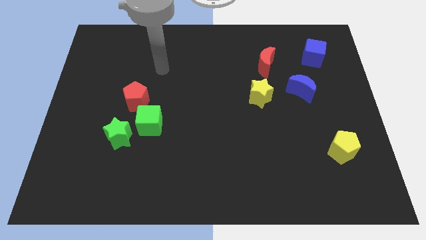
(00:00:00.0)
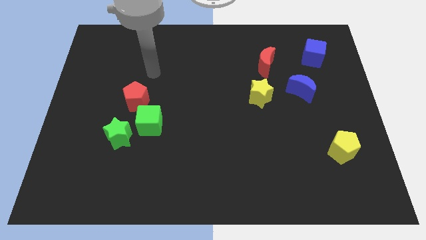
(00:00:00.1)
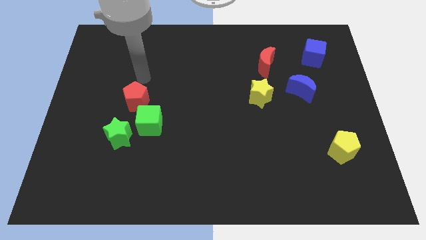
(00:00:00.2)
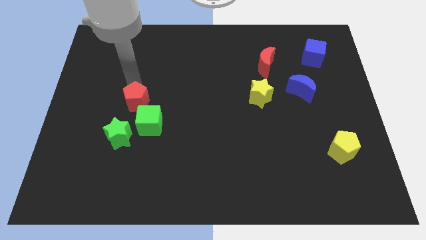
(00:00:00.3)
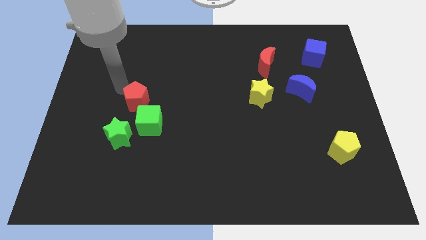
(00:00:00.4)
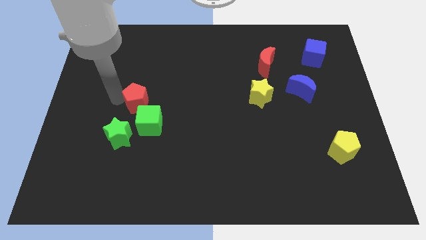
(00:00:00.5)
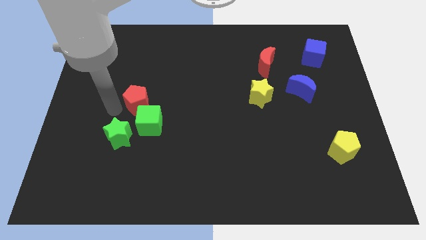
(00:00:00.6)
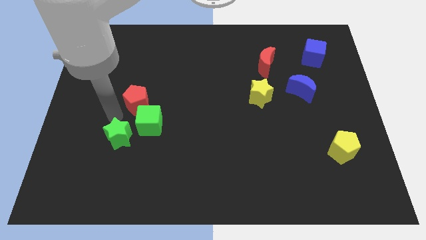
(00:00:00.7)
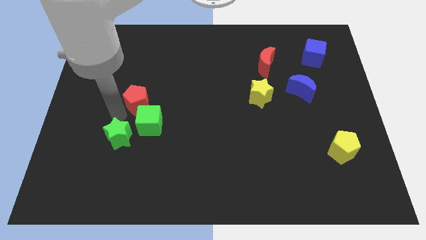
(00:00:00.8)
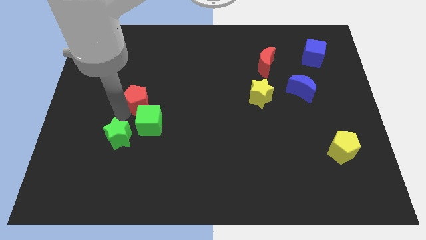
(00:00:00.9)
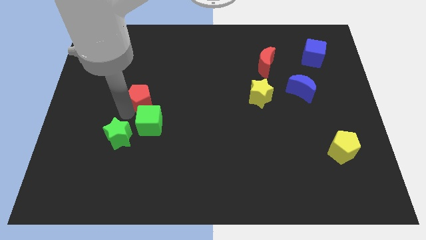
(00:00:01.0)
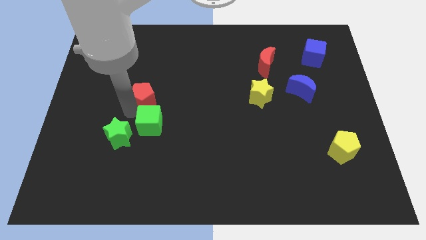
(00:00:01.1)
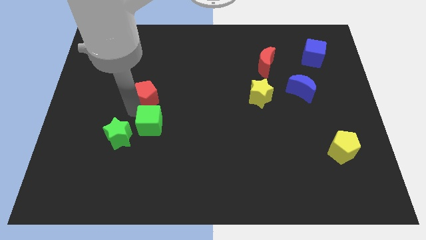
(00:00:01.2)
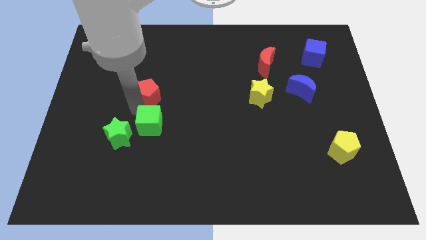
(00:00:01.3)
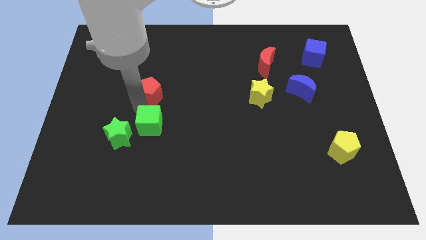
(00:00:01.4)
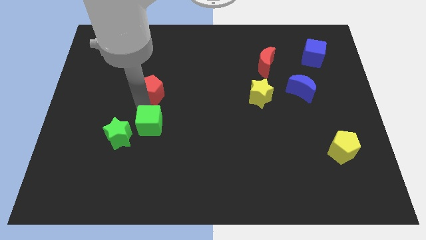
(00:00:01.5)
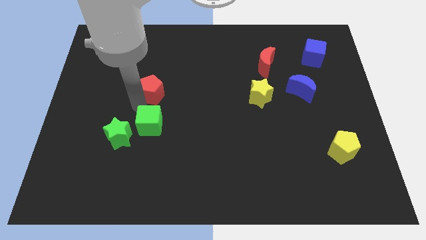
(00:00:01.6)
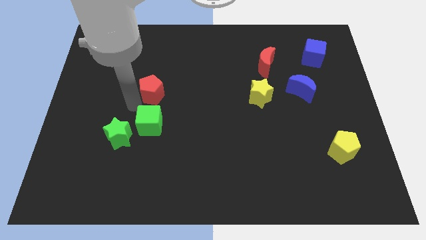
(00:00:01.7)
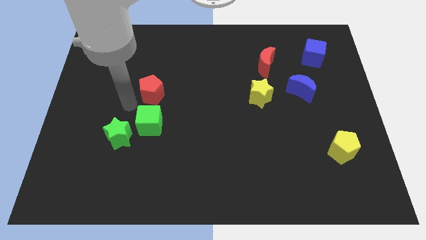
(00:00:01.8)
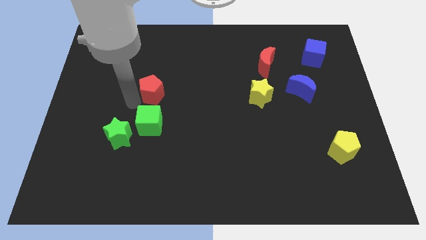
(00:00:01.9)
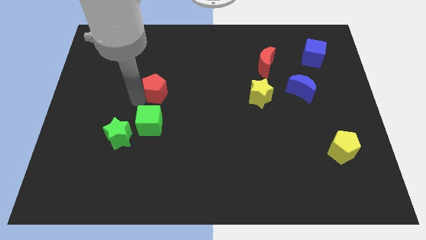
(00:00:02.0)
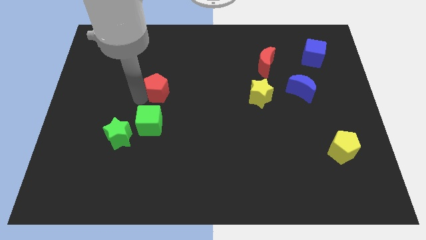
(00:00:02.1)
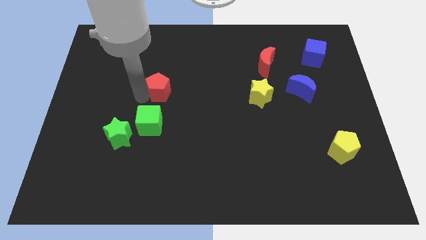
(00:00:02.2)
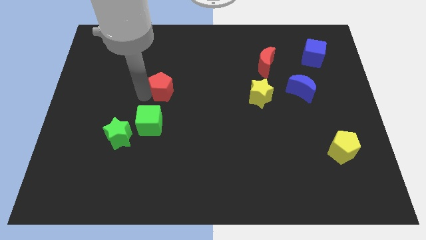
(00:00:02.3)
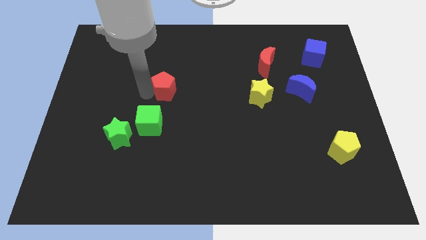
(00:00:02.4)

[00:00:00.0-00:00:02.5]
push the red pentagon a bit upwards and right diagonally

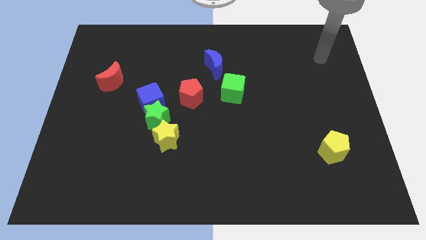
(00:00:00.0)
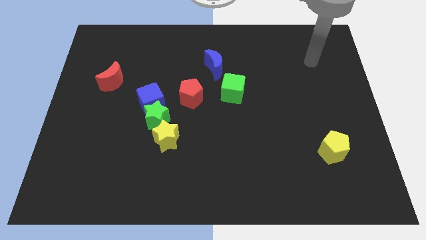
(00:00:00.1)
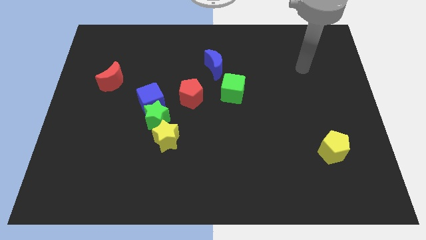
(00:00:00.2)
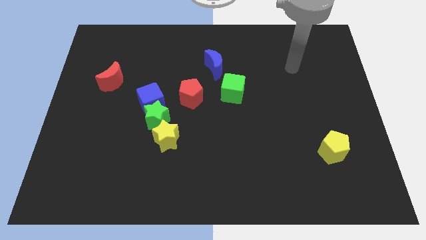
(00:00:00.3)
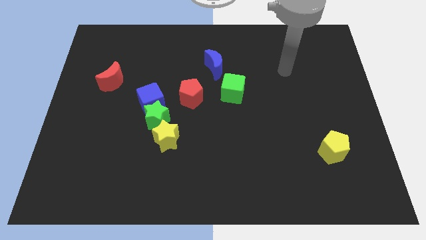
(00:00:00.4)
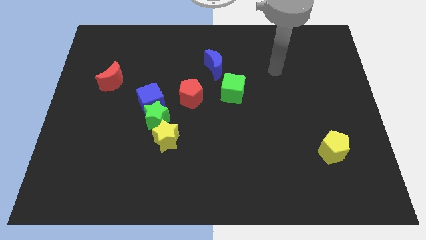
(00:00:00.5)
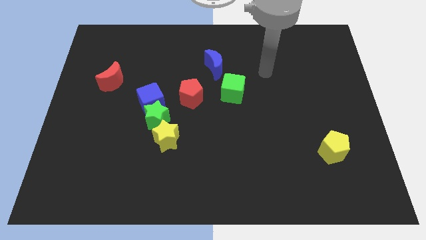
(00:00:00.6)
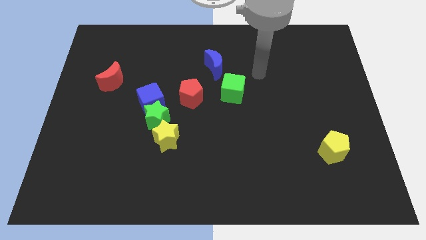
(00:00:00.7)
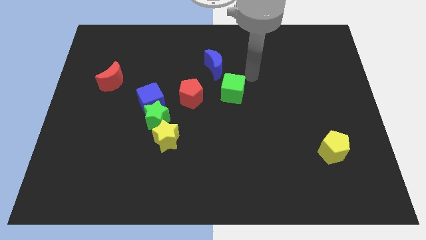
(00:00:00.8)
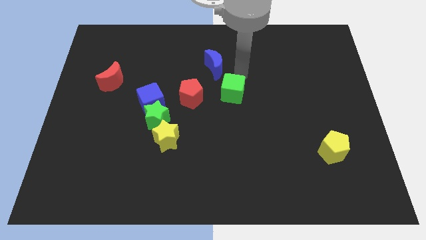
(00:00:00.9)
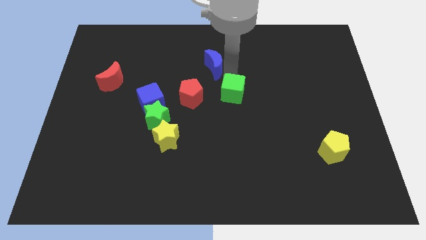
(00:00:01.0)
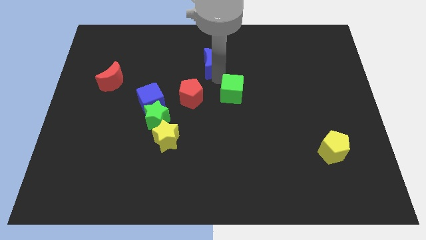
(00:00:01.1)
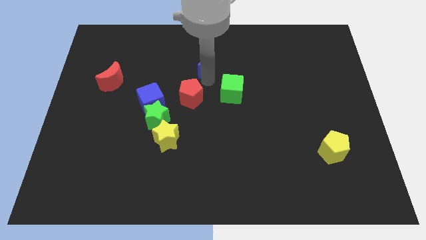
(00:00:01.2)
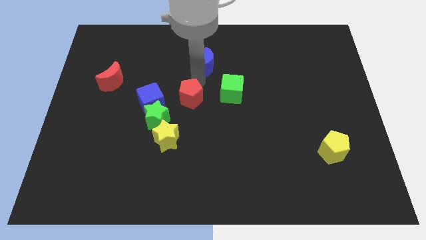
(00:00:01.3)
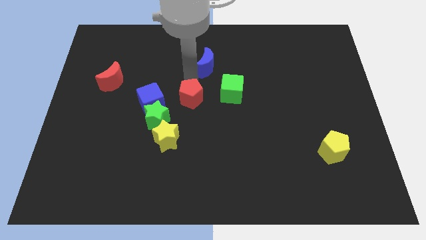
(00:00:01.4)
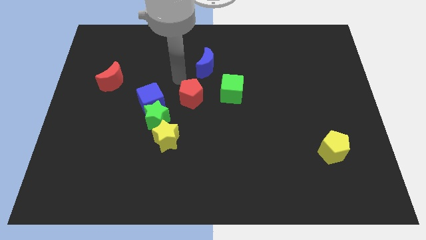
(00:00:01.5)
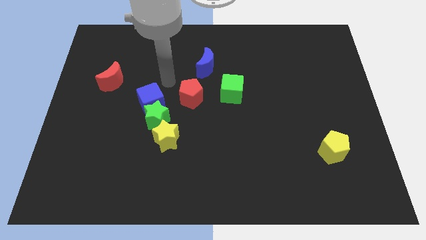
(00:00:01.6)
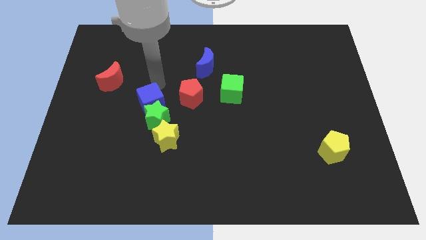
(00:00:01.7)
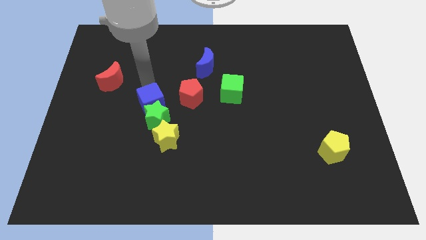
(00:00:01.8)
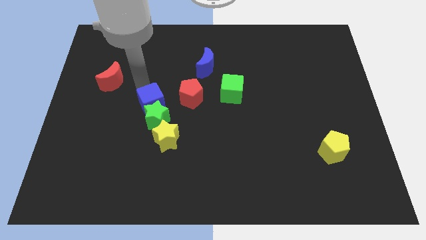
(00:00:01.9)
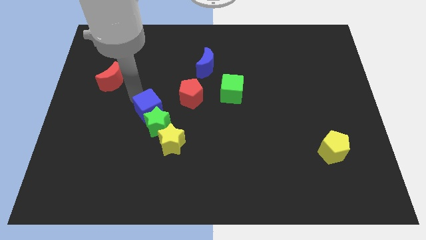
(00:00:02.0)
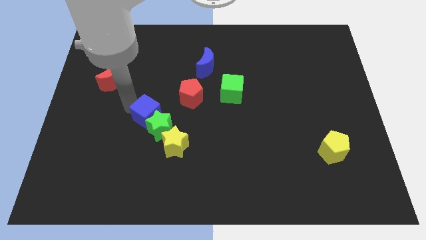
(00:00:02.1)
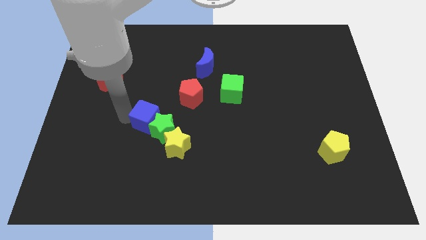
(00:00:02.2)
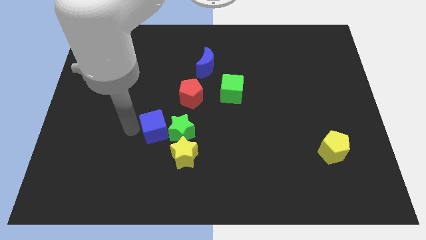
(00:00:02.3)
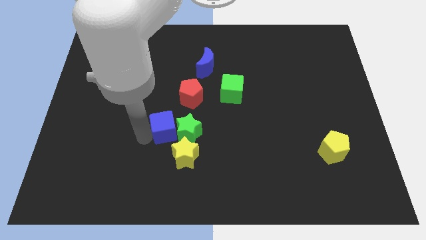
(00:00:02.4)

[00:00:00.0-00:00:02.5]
push the green star a little bit to the right

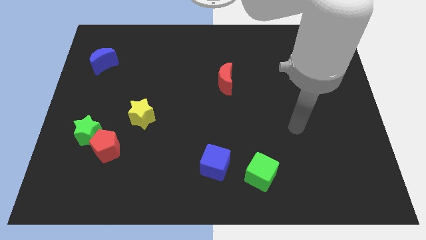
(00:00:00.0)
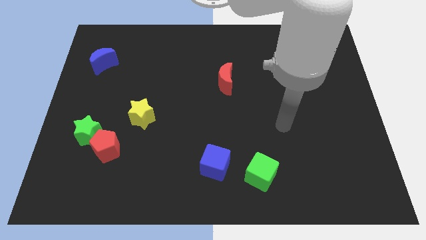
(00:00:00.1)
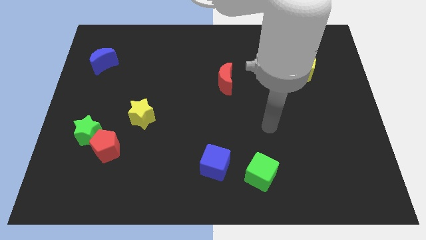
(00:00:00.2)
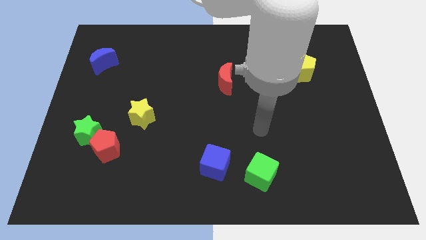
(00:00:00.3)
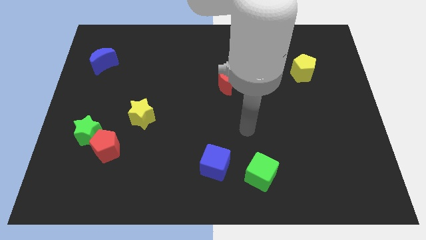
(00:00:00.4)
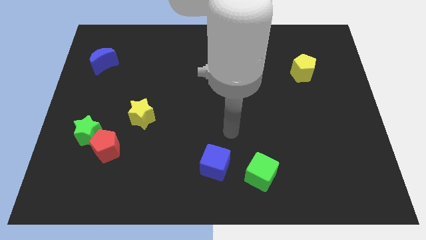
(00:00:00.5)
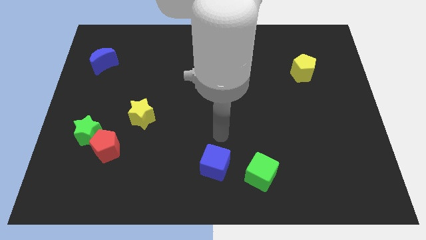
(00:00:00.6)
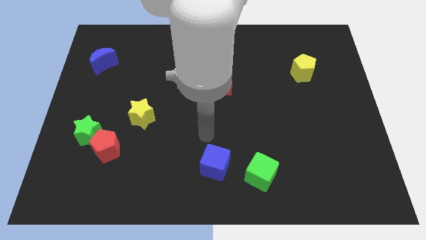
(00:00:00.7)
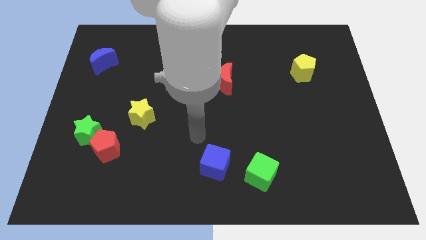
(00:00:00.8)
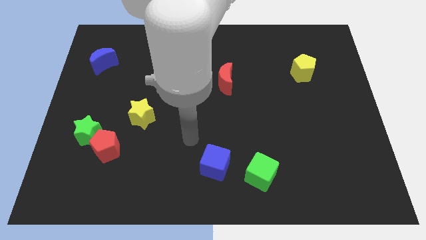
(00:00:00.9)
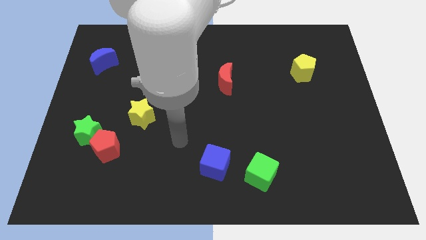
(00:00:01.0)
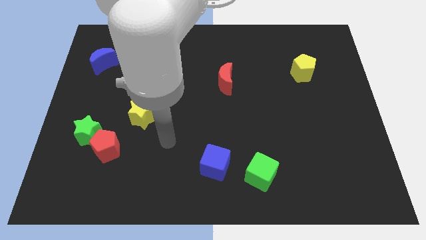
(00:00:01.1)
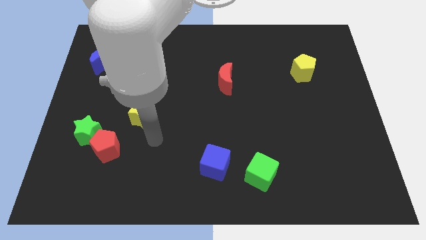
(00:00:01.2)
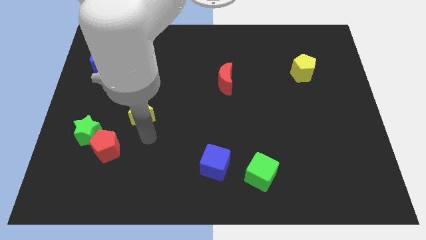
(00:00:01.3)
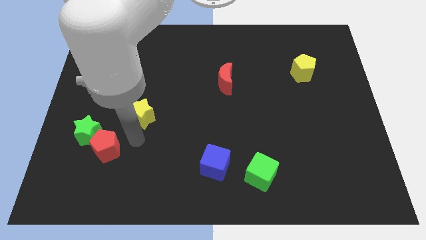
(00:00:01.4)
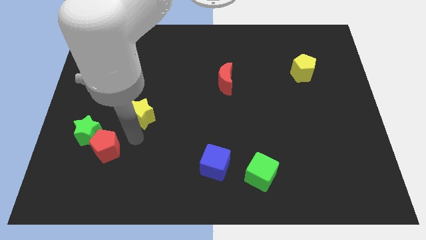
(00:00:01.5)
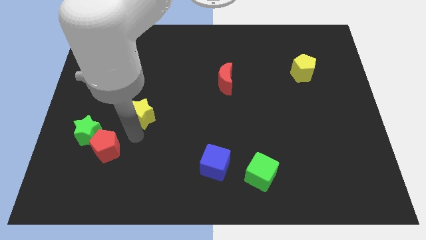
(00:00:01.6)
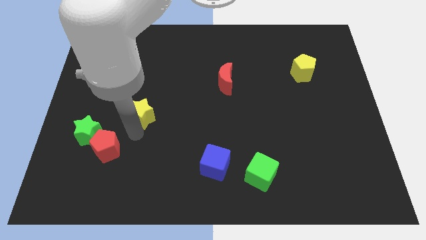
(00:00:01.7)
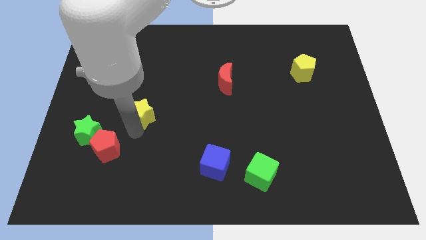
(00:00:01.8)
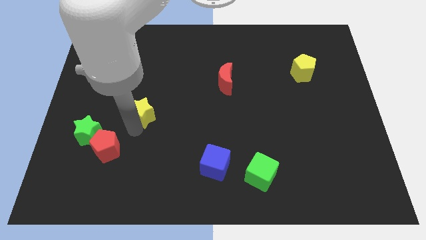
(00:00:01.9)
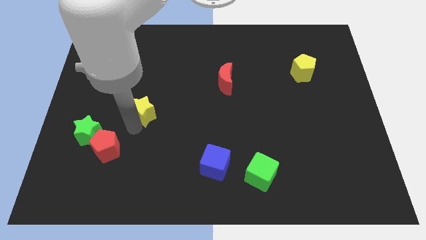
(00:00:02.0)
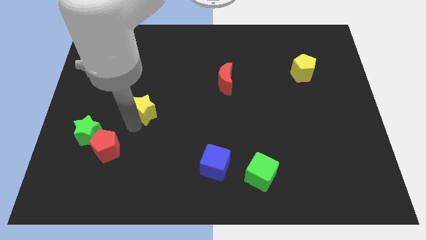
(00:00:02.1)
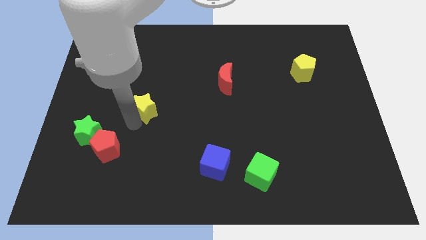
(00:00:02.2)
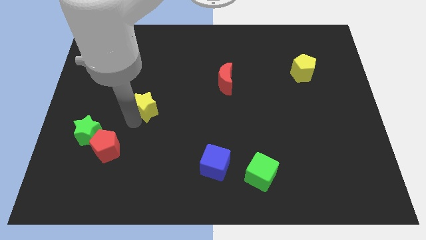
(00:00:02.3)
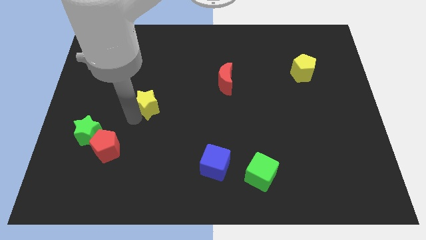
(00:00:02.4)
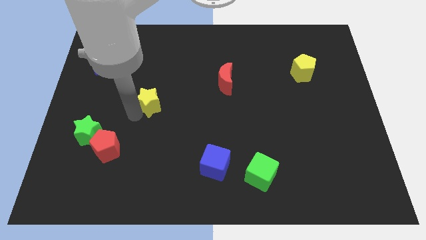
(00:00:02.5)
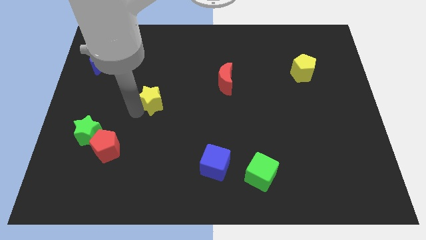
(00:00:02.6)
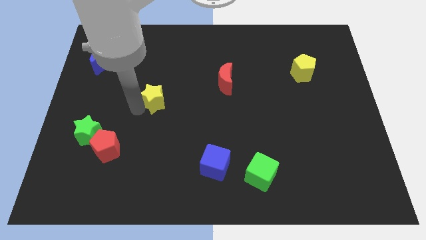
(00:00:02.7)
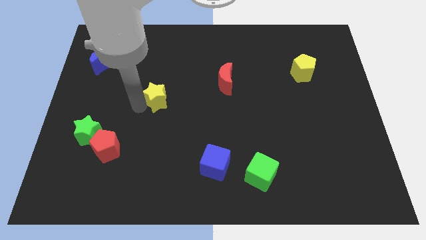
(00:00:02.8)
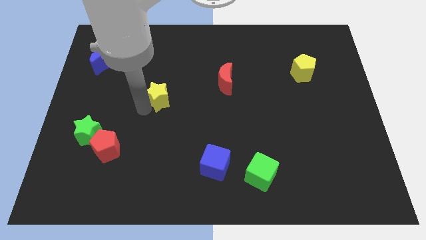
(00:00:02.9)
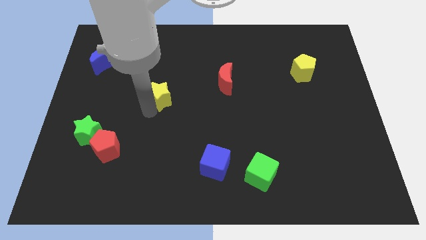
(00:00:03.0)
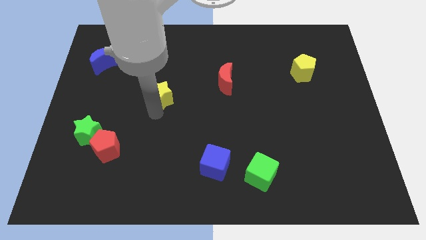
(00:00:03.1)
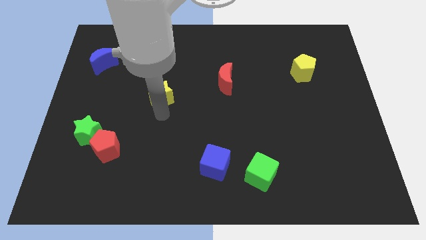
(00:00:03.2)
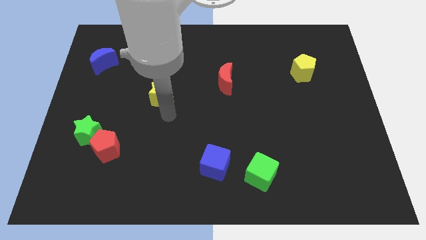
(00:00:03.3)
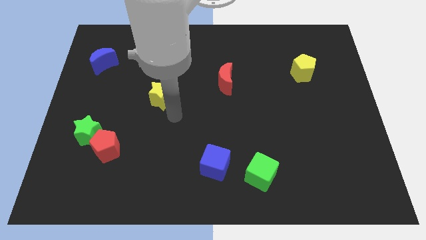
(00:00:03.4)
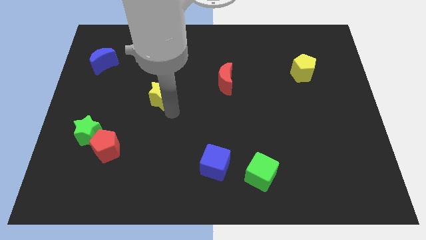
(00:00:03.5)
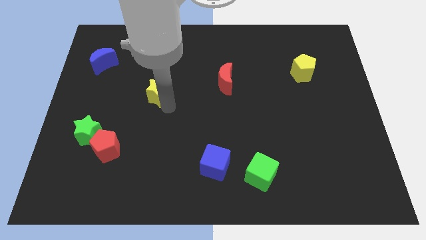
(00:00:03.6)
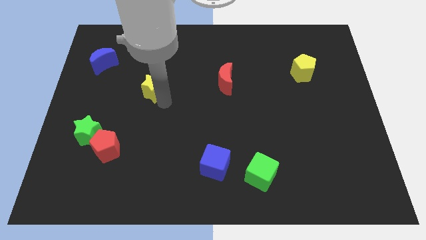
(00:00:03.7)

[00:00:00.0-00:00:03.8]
slide the yellow star up a bit
